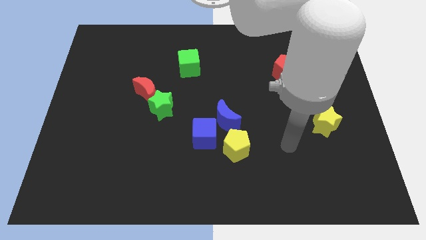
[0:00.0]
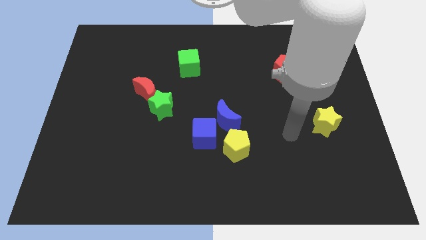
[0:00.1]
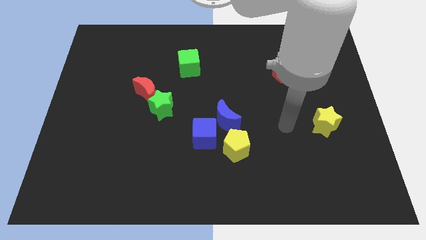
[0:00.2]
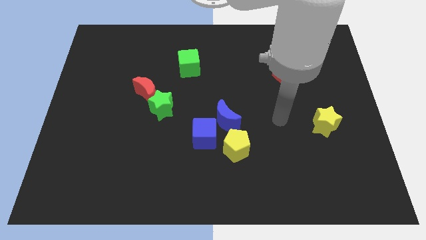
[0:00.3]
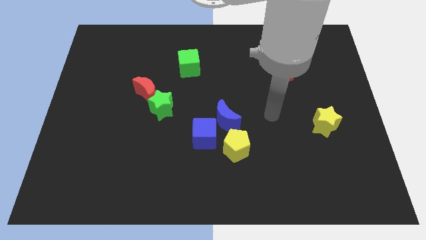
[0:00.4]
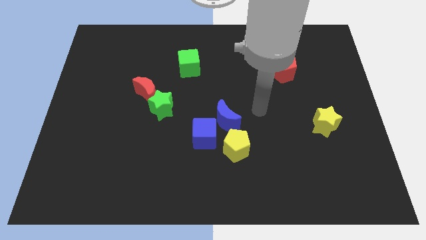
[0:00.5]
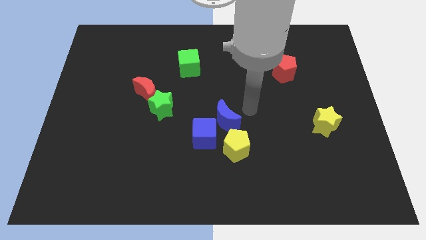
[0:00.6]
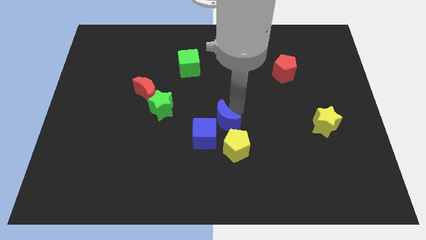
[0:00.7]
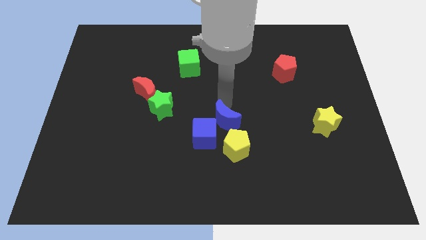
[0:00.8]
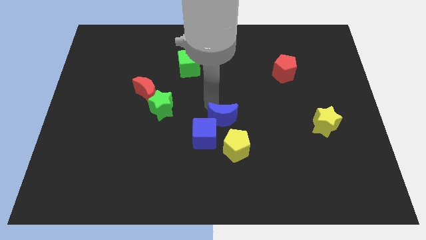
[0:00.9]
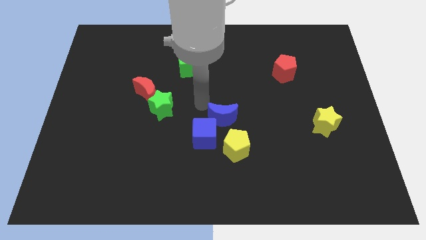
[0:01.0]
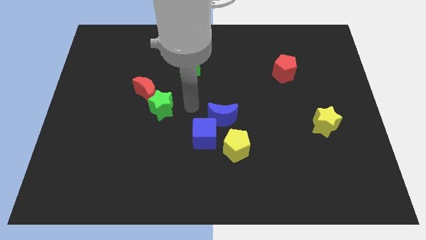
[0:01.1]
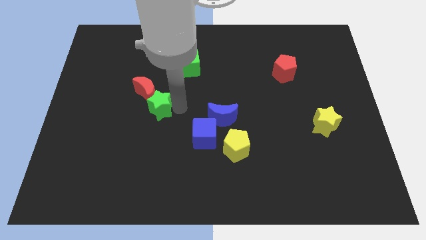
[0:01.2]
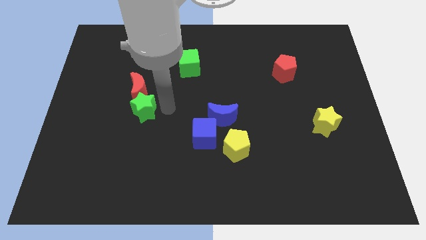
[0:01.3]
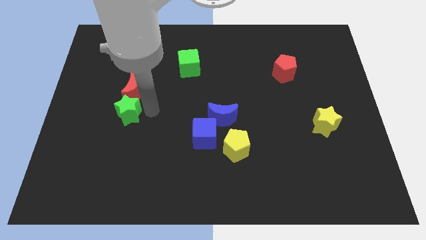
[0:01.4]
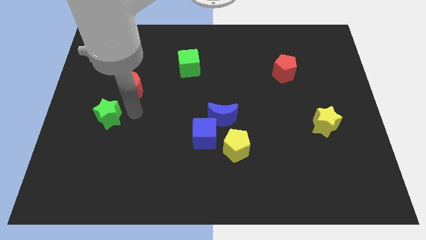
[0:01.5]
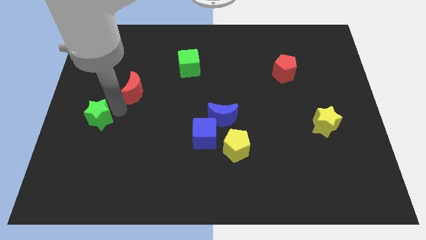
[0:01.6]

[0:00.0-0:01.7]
separate the red moon from the green star

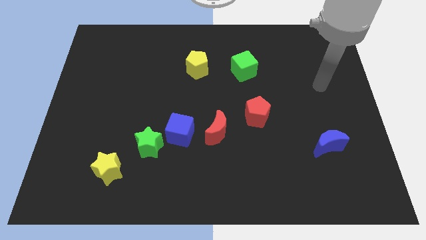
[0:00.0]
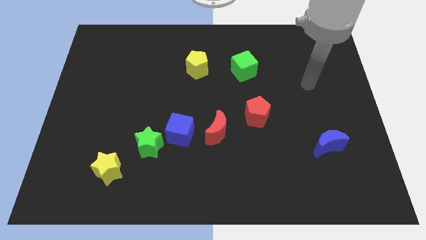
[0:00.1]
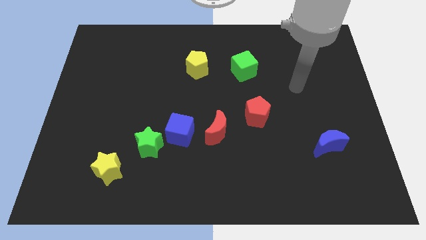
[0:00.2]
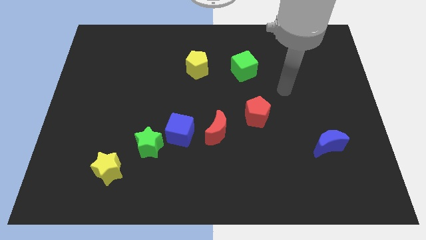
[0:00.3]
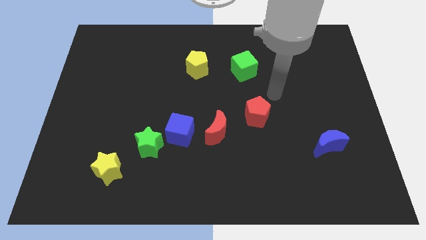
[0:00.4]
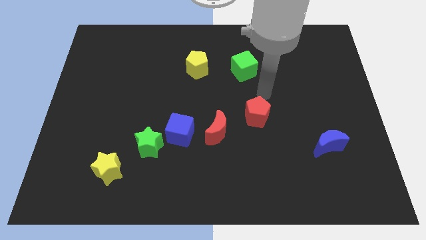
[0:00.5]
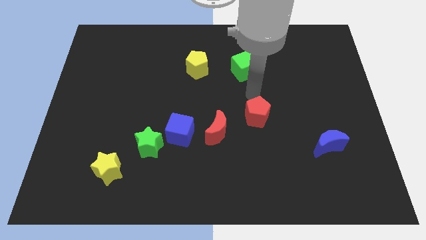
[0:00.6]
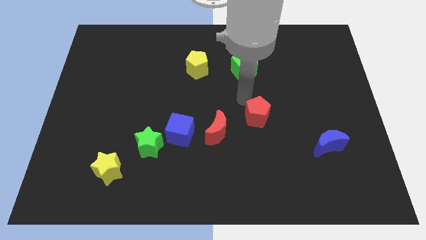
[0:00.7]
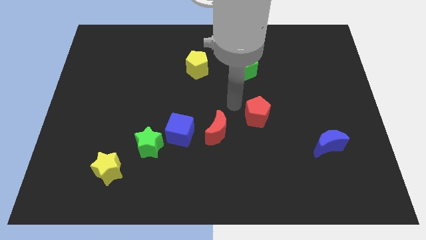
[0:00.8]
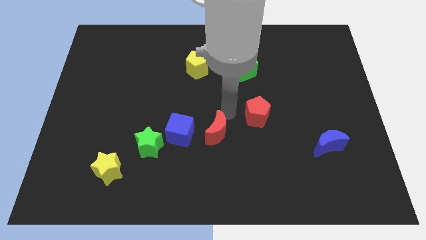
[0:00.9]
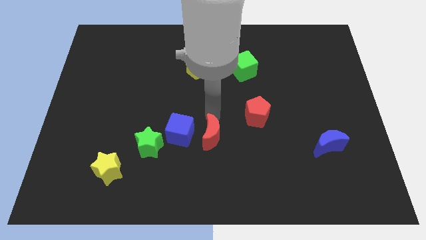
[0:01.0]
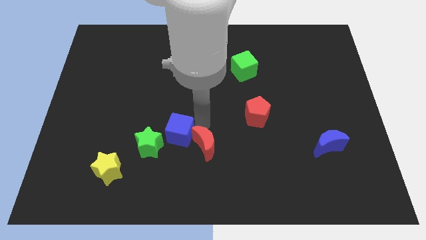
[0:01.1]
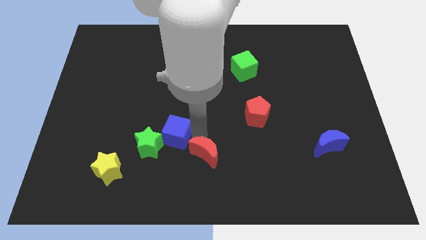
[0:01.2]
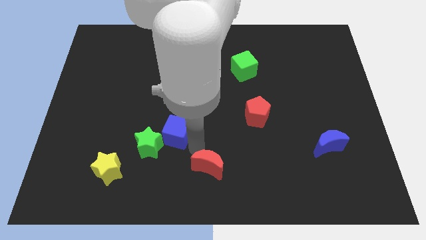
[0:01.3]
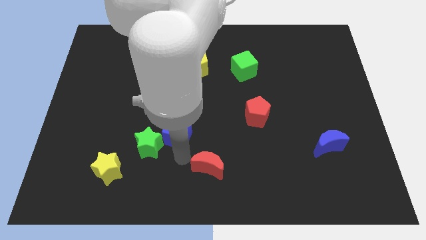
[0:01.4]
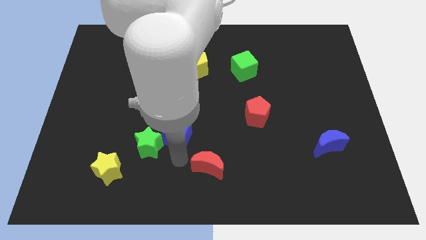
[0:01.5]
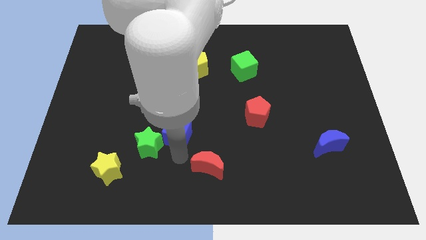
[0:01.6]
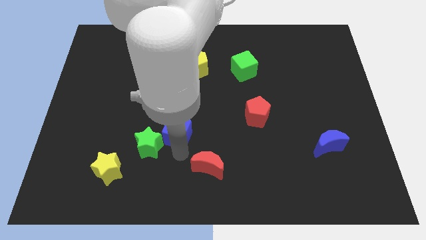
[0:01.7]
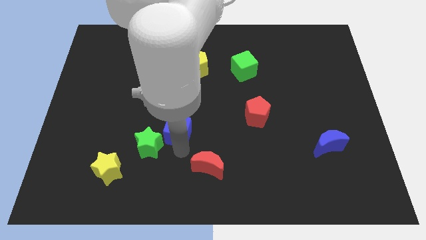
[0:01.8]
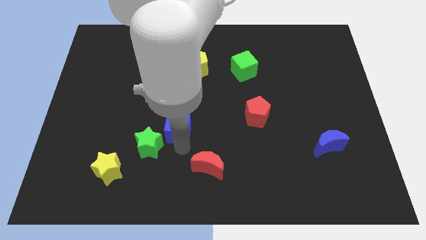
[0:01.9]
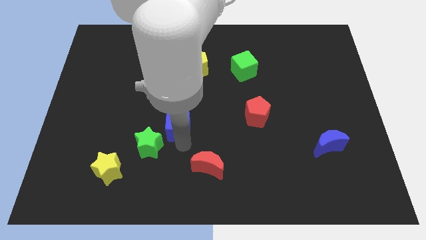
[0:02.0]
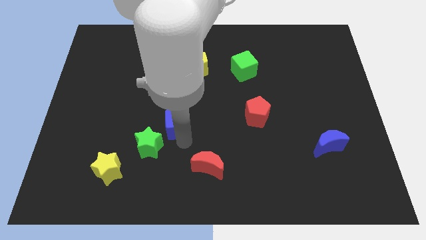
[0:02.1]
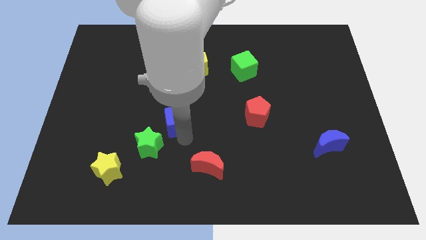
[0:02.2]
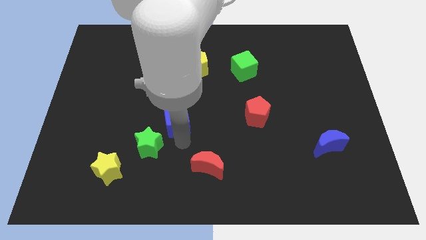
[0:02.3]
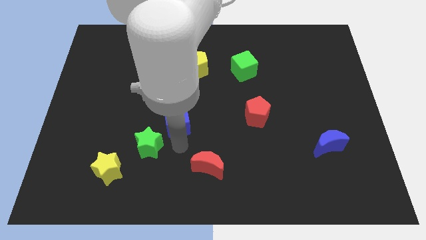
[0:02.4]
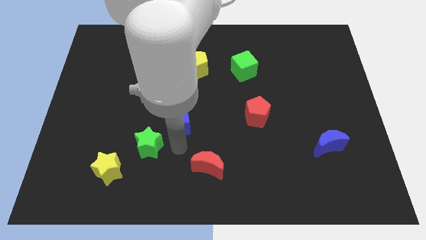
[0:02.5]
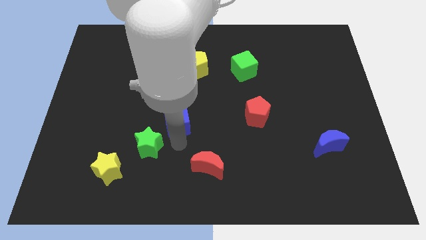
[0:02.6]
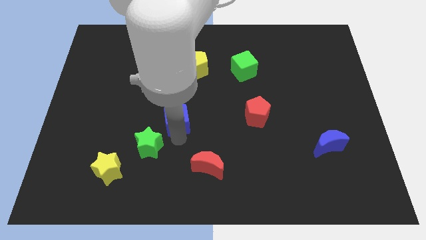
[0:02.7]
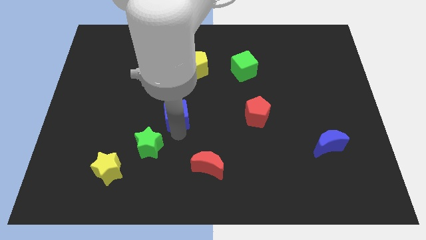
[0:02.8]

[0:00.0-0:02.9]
move the blue cube away from the green star and red moon

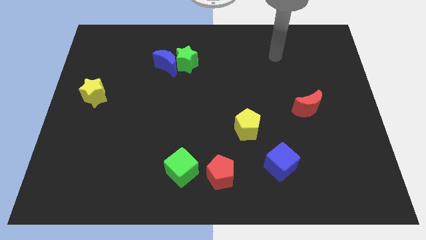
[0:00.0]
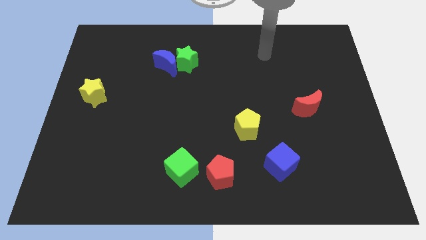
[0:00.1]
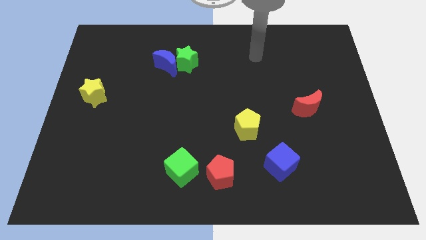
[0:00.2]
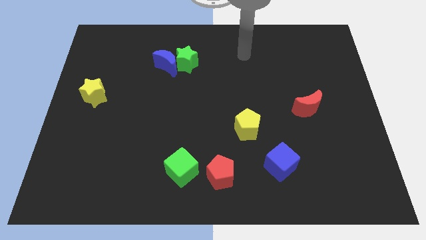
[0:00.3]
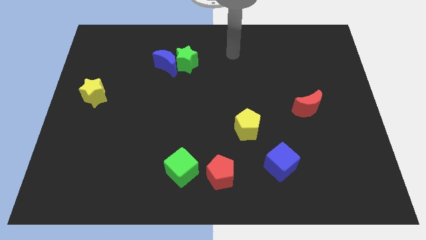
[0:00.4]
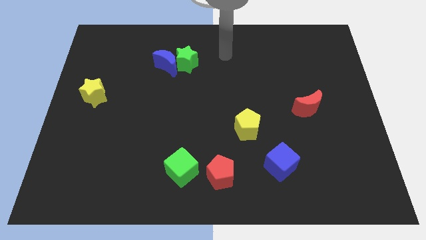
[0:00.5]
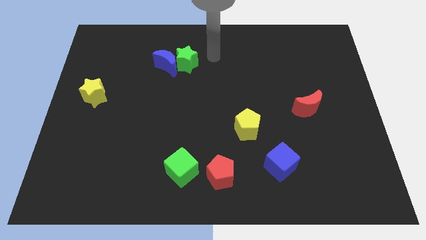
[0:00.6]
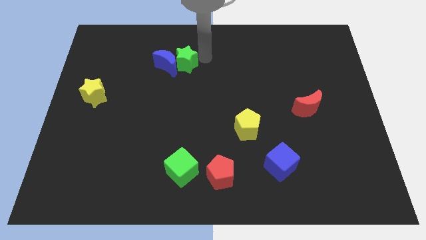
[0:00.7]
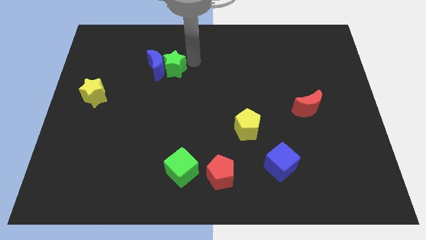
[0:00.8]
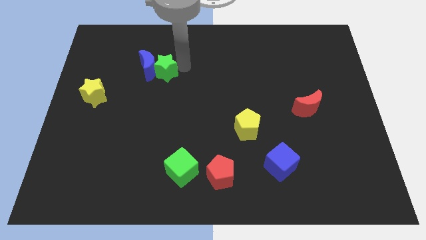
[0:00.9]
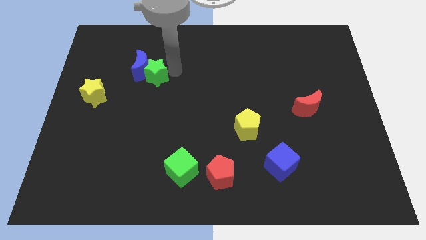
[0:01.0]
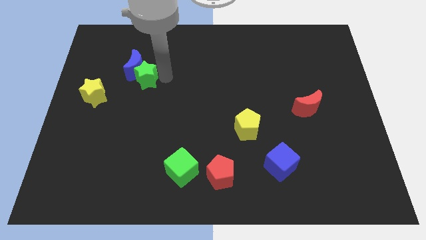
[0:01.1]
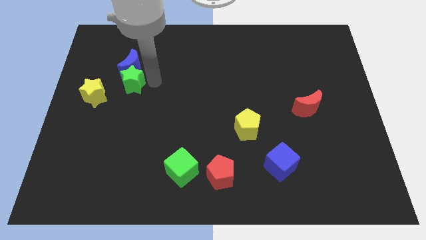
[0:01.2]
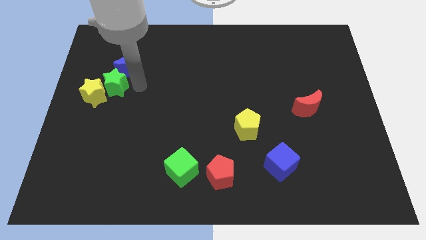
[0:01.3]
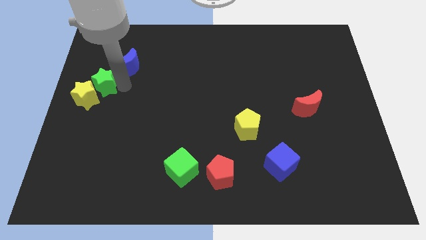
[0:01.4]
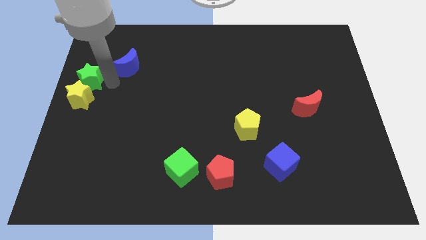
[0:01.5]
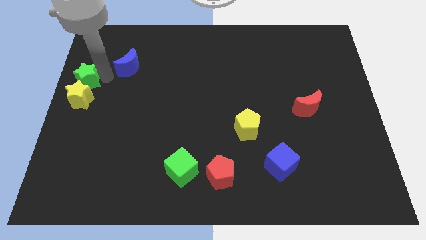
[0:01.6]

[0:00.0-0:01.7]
pull the blue moon apart from the green star

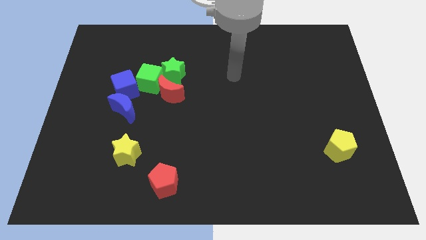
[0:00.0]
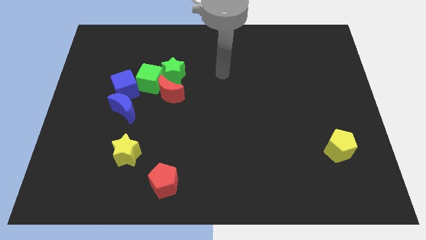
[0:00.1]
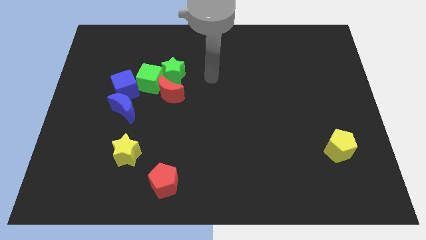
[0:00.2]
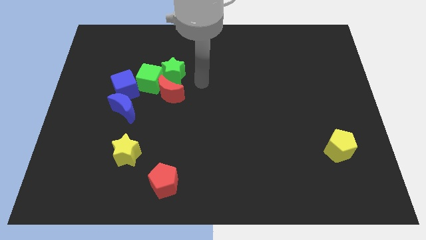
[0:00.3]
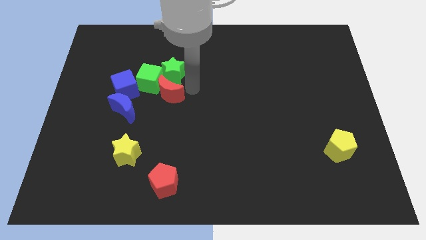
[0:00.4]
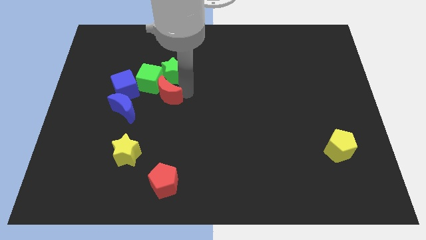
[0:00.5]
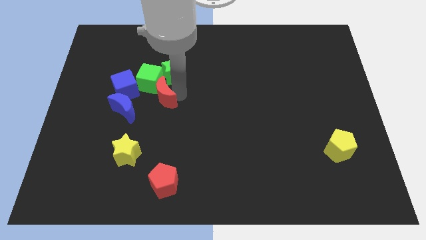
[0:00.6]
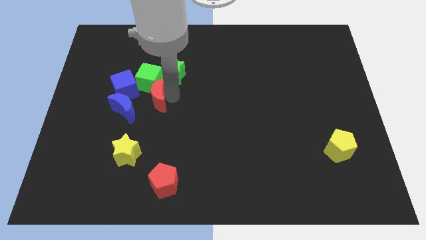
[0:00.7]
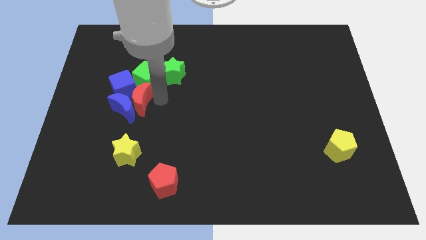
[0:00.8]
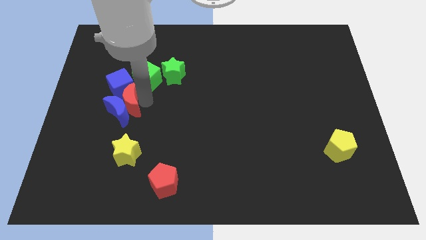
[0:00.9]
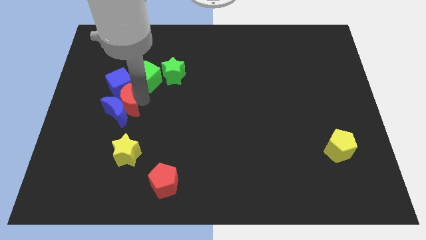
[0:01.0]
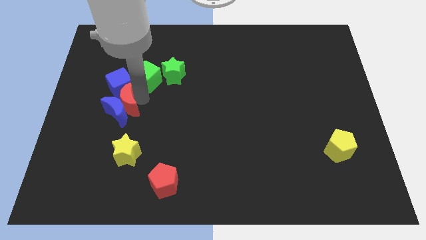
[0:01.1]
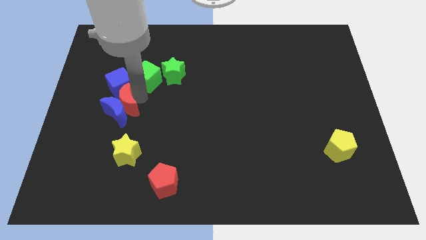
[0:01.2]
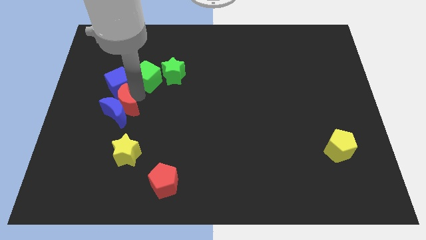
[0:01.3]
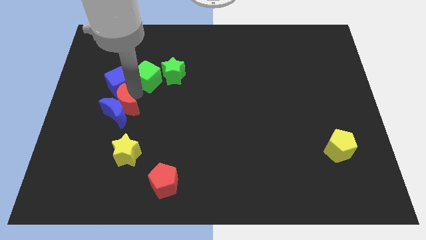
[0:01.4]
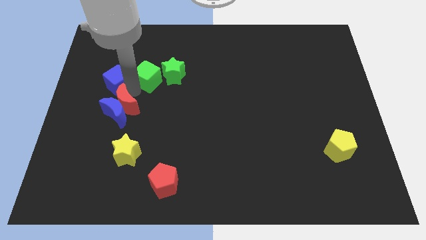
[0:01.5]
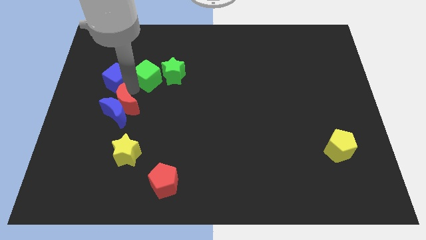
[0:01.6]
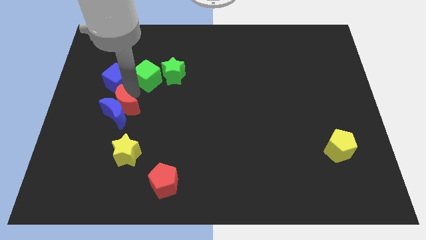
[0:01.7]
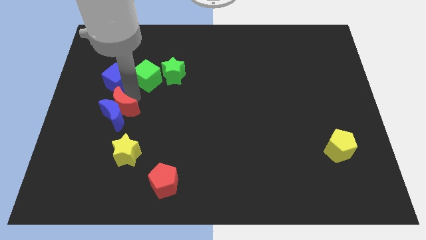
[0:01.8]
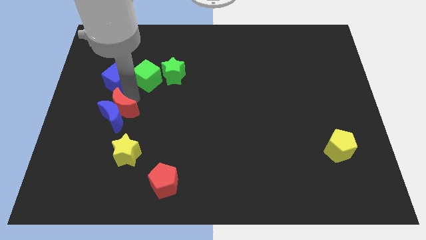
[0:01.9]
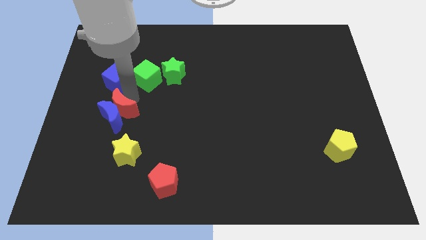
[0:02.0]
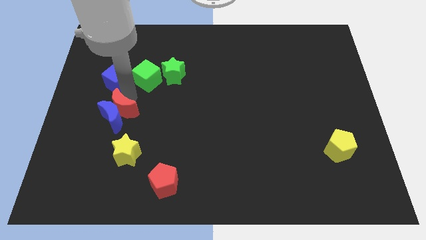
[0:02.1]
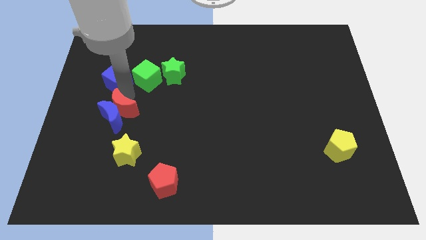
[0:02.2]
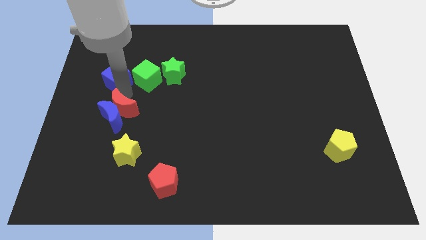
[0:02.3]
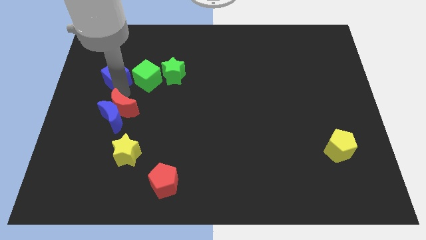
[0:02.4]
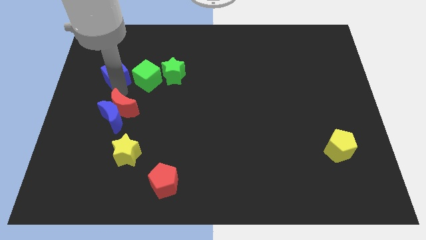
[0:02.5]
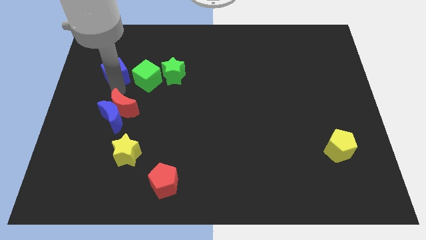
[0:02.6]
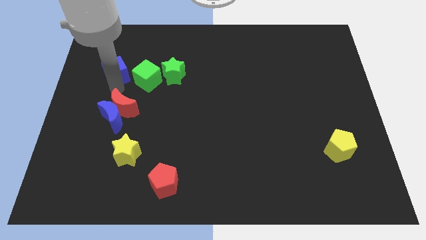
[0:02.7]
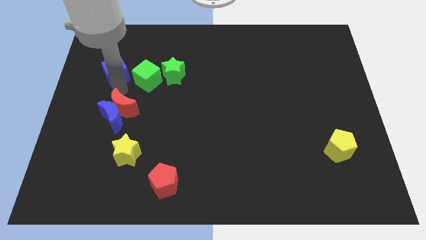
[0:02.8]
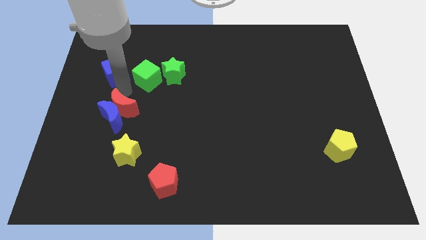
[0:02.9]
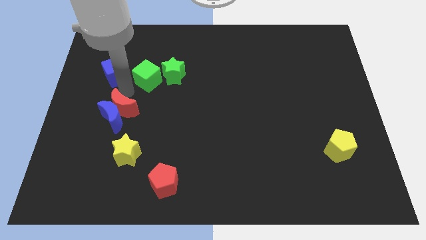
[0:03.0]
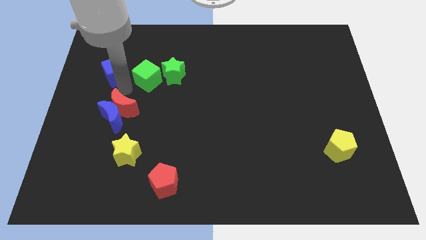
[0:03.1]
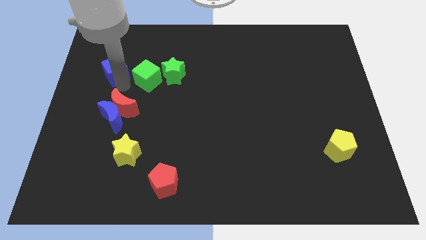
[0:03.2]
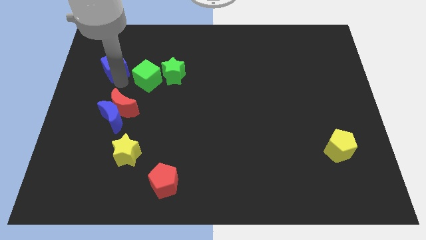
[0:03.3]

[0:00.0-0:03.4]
pull the blue cube apart from the green cube and blue moon
